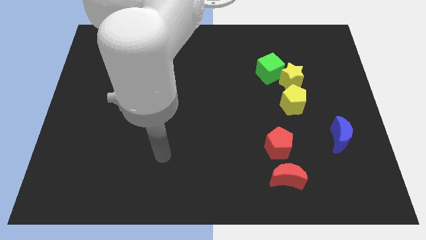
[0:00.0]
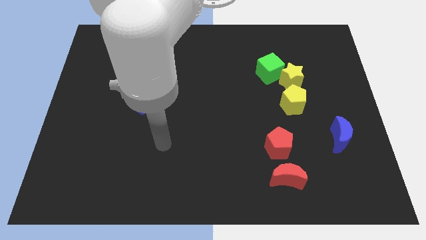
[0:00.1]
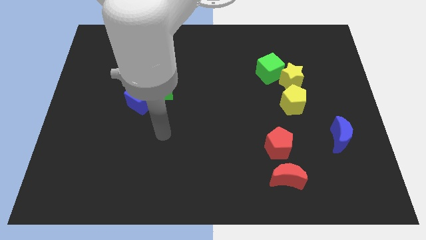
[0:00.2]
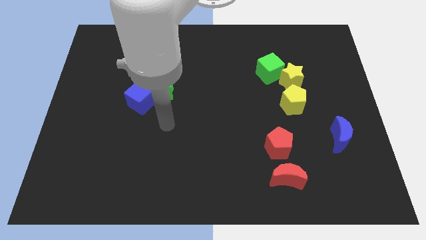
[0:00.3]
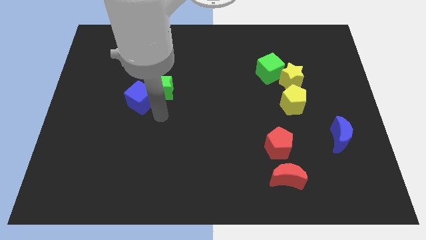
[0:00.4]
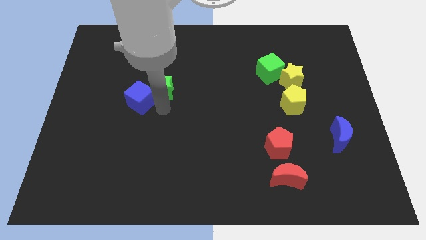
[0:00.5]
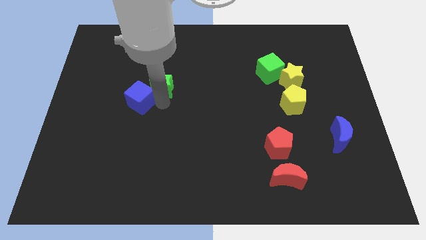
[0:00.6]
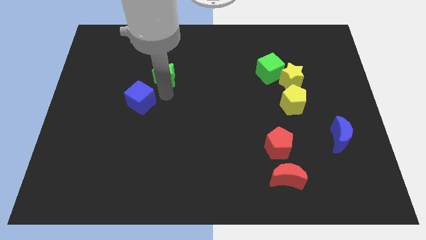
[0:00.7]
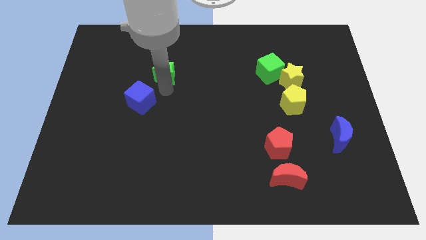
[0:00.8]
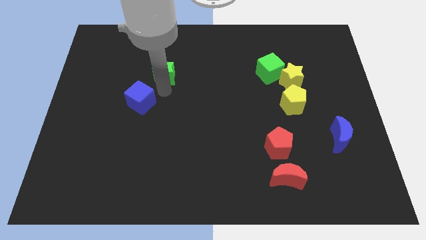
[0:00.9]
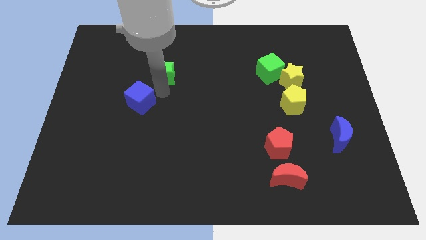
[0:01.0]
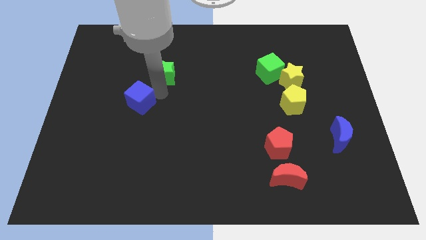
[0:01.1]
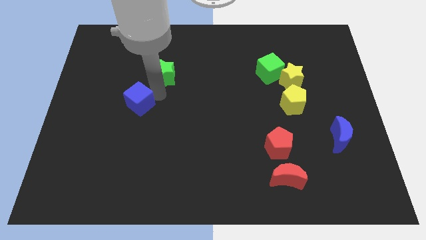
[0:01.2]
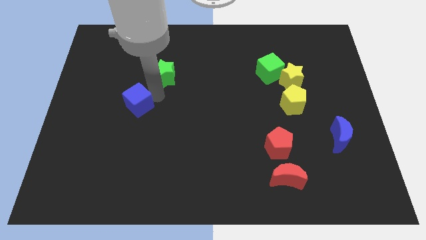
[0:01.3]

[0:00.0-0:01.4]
pull the blue cube apart from the green star

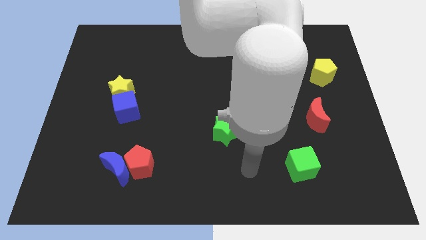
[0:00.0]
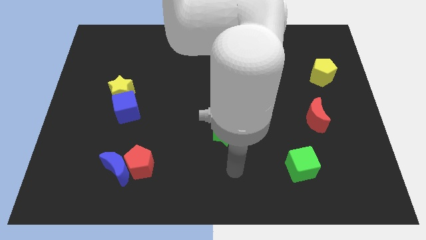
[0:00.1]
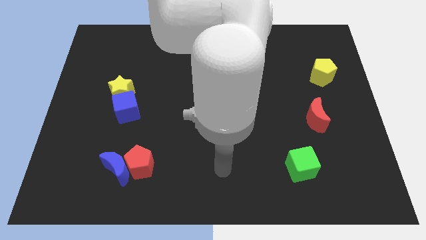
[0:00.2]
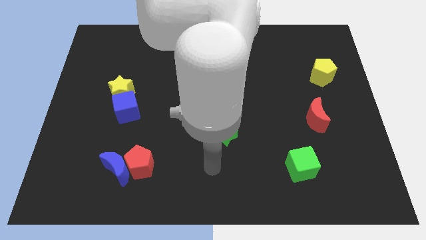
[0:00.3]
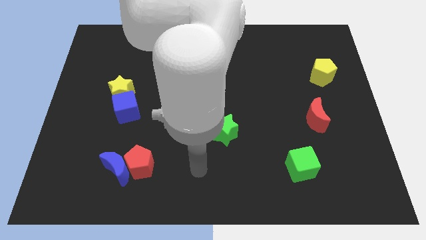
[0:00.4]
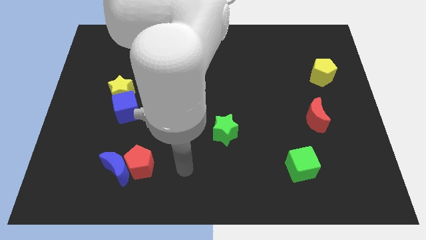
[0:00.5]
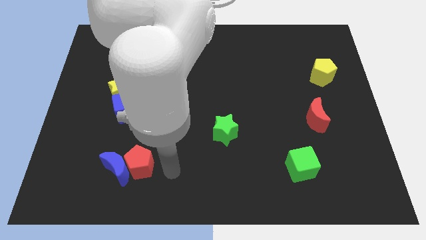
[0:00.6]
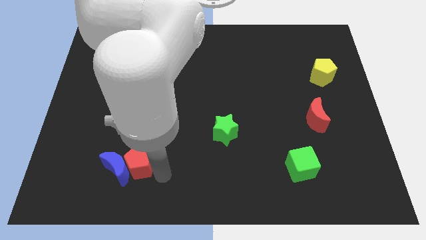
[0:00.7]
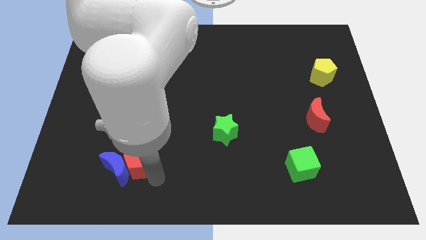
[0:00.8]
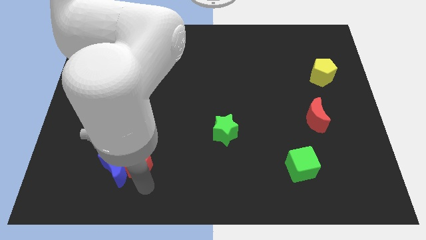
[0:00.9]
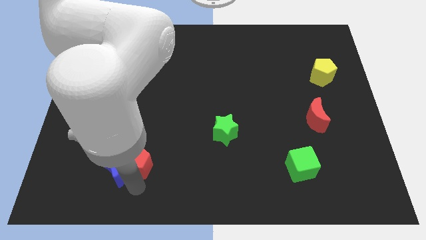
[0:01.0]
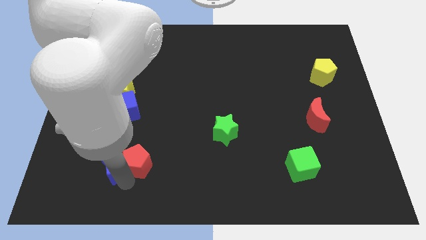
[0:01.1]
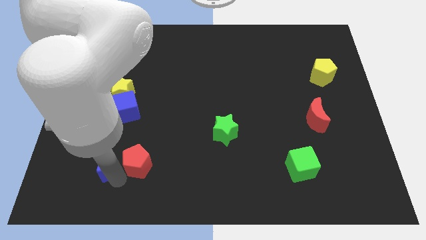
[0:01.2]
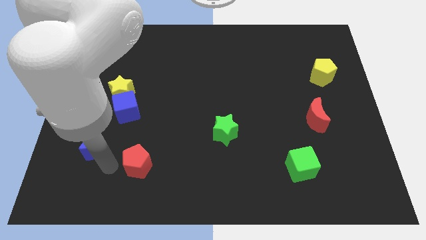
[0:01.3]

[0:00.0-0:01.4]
pull the red pentagon apart from the blue moon

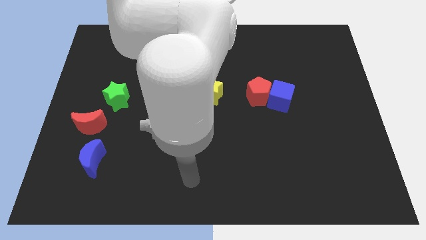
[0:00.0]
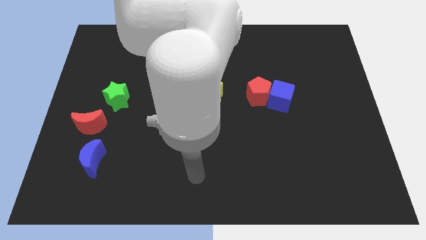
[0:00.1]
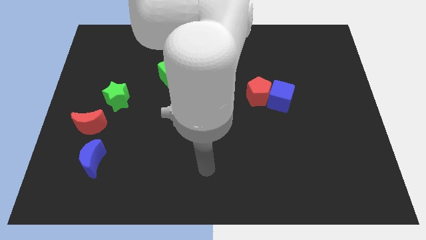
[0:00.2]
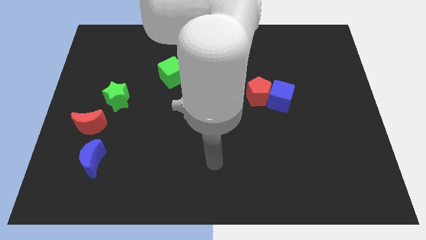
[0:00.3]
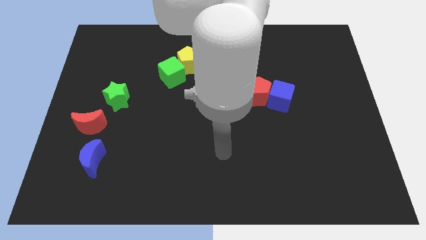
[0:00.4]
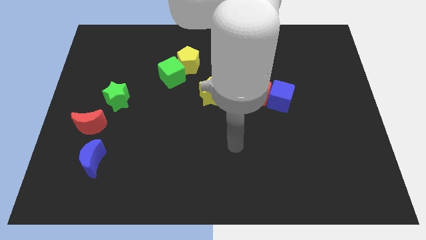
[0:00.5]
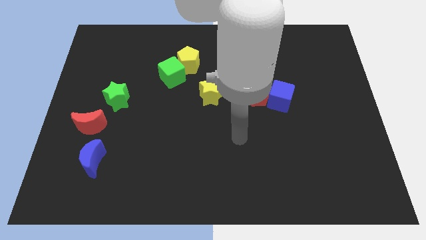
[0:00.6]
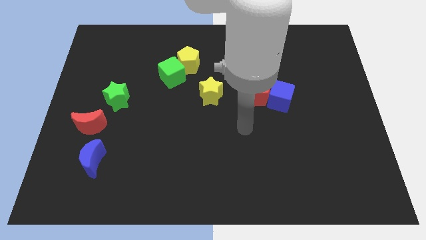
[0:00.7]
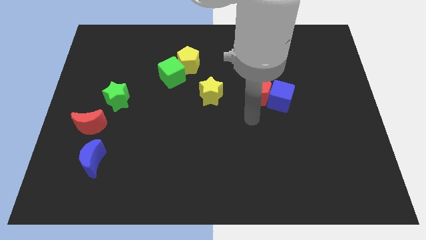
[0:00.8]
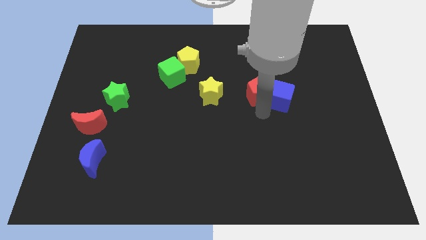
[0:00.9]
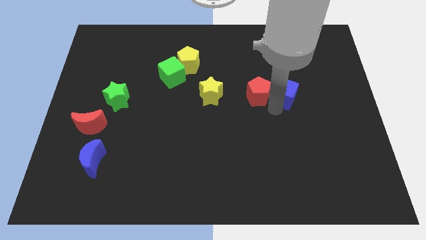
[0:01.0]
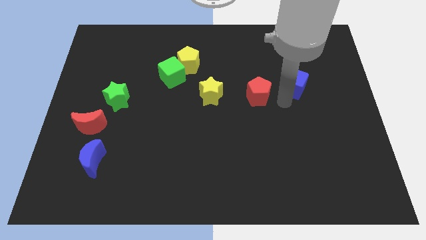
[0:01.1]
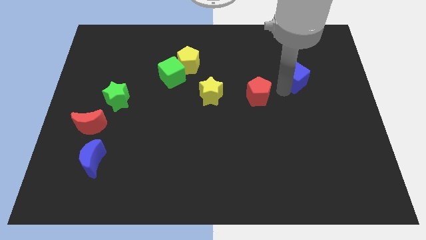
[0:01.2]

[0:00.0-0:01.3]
separate the red pentagon from the blue cube

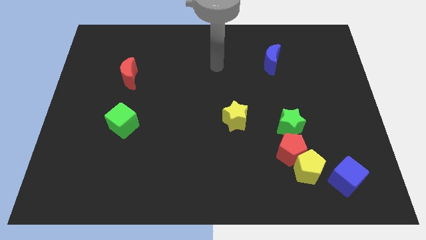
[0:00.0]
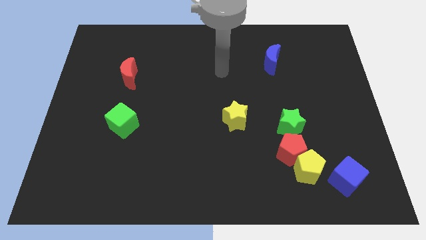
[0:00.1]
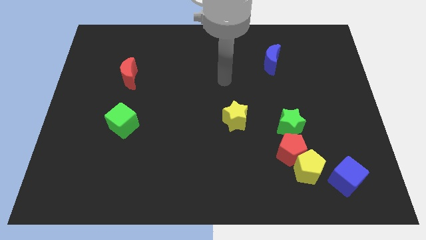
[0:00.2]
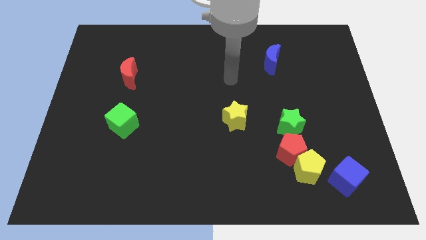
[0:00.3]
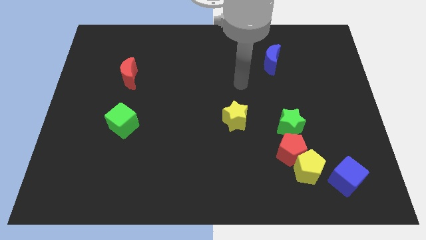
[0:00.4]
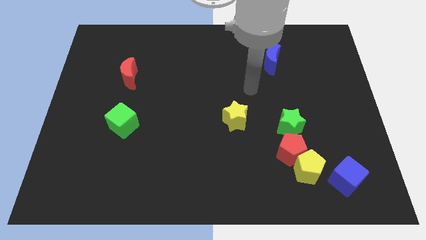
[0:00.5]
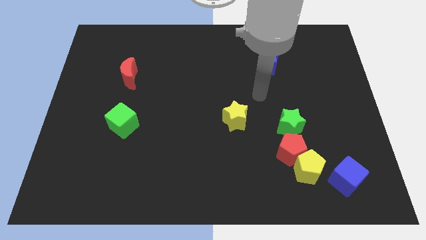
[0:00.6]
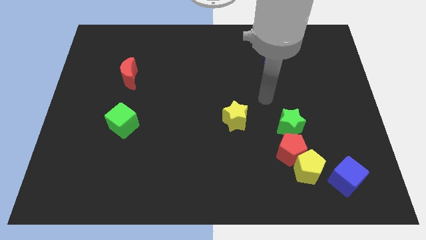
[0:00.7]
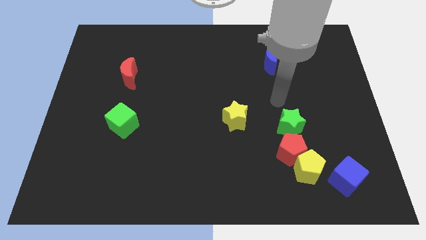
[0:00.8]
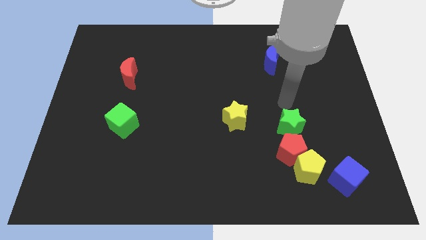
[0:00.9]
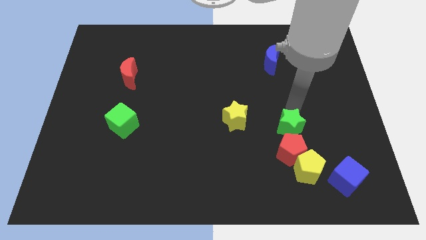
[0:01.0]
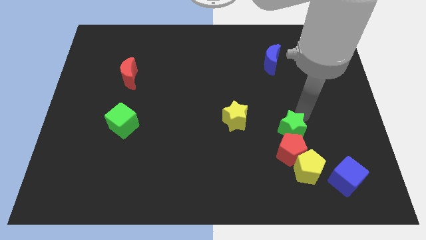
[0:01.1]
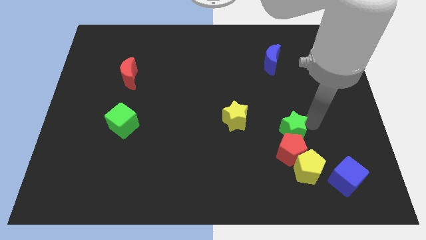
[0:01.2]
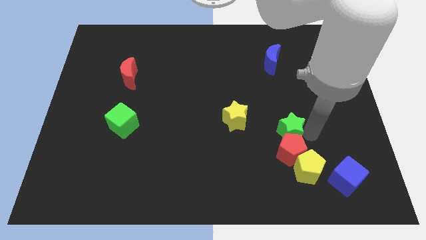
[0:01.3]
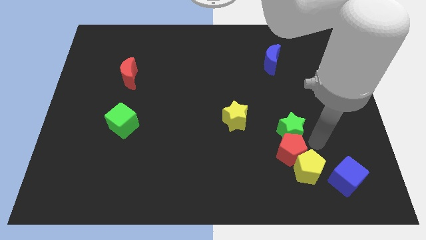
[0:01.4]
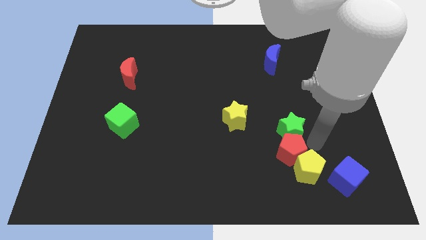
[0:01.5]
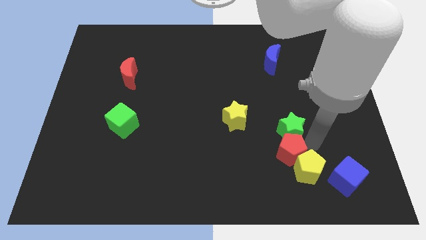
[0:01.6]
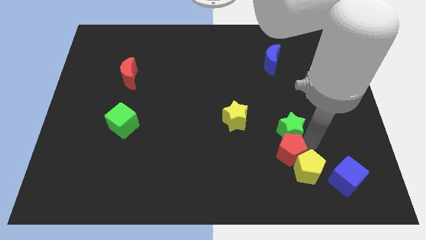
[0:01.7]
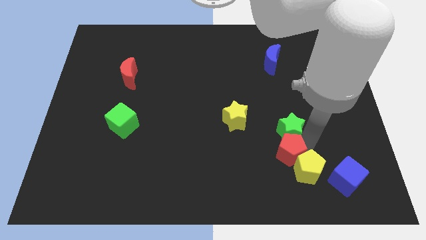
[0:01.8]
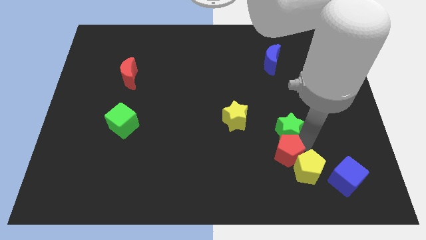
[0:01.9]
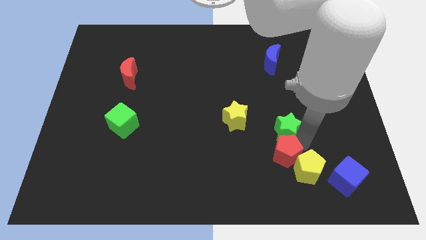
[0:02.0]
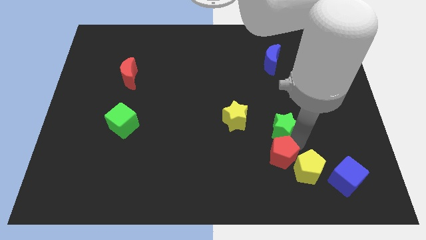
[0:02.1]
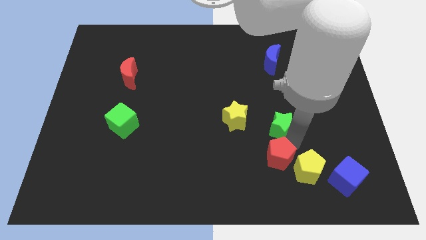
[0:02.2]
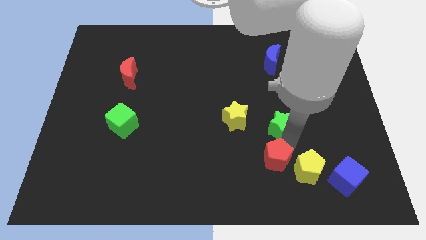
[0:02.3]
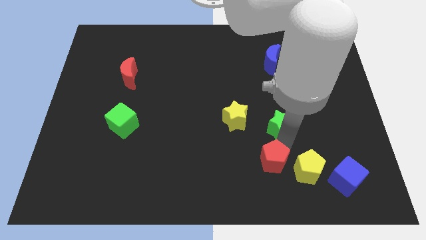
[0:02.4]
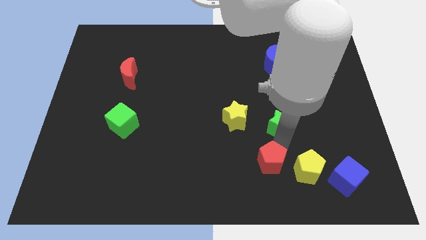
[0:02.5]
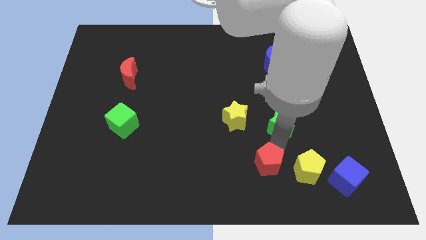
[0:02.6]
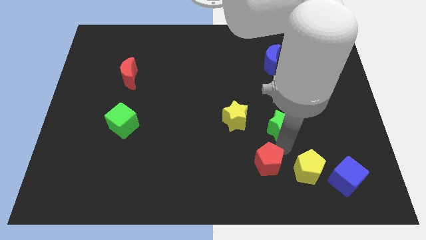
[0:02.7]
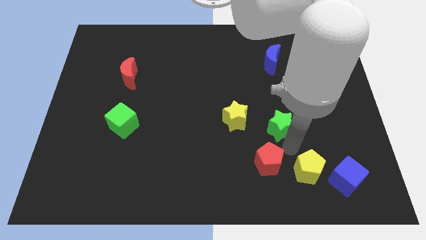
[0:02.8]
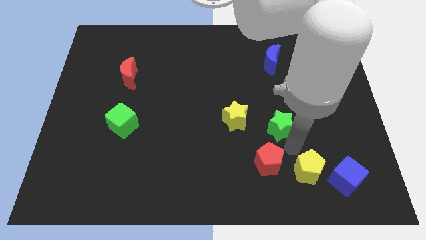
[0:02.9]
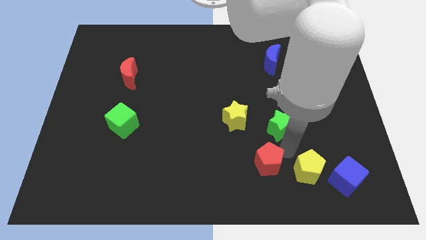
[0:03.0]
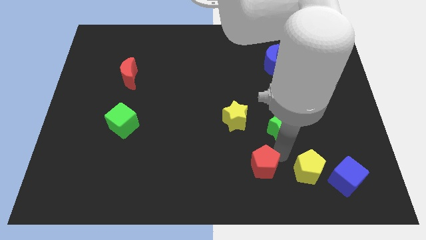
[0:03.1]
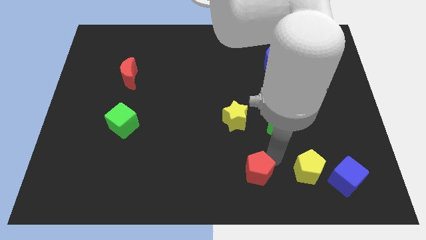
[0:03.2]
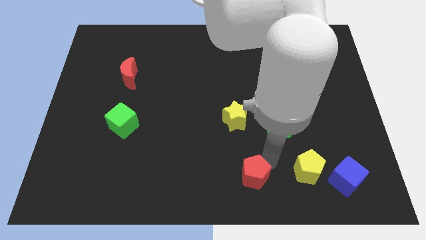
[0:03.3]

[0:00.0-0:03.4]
move the red pentagon away from the yellow pentagon and green star

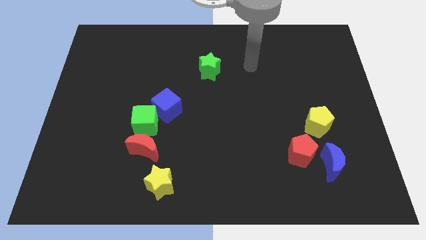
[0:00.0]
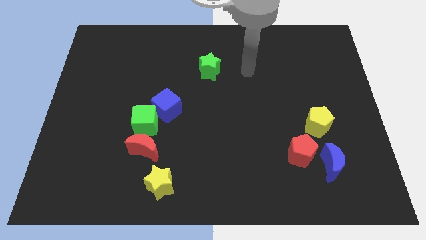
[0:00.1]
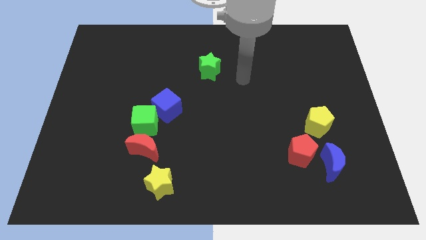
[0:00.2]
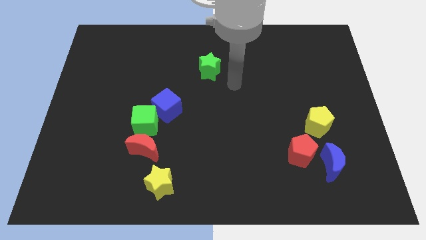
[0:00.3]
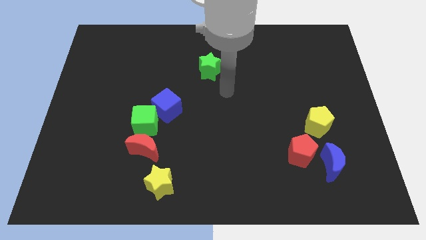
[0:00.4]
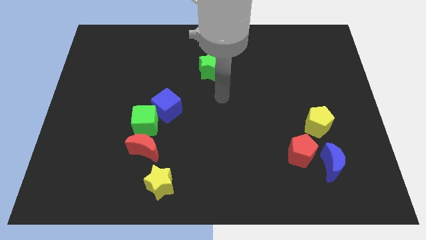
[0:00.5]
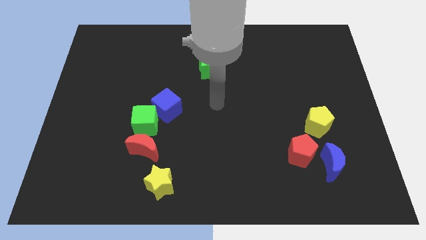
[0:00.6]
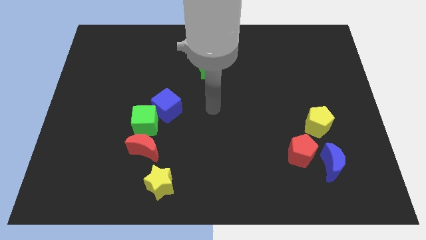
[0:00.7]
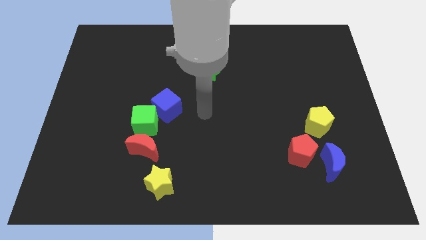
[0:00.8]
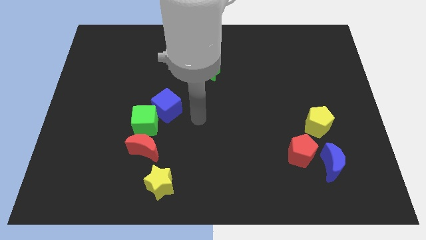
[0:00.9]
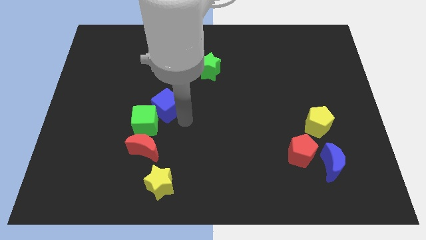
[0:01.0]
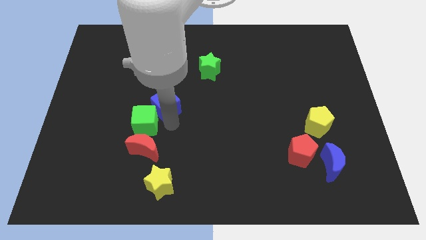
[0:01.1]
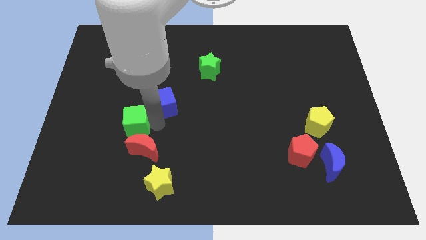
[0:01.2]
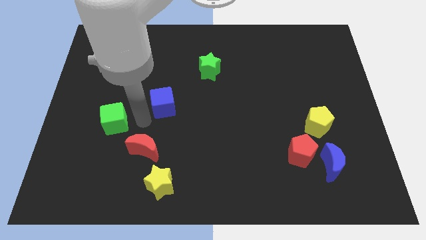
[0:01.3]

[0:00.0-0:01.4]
move the blue cube away from the green cube

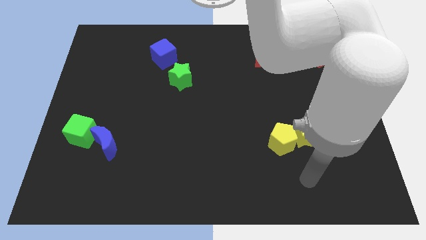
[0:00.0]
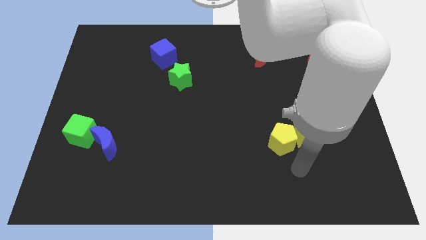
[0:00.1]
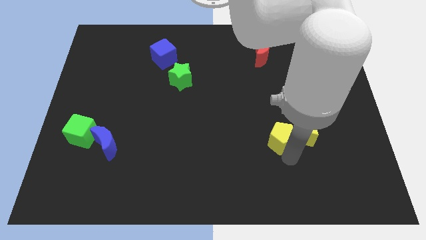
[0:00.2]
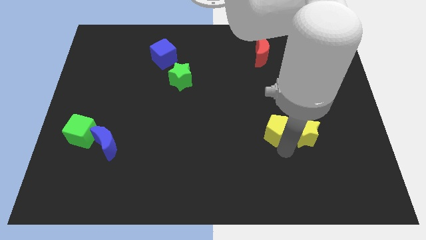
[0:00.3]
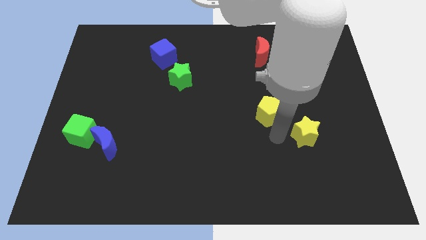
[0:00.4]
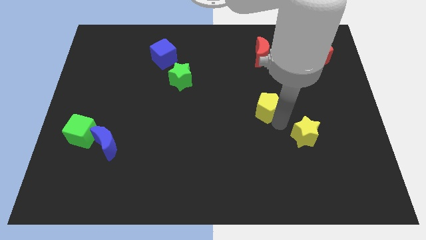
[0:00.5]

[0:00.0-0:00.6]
separate the yellow star from the yellow pentagon
